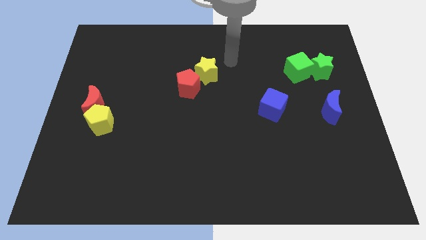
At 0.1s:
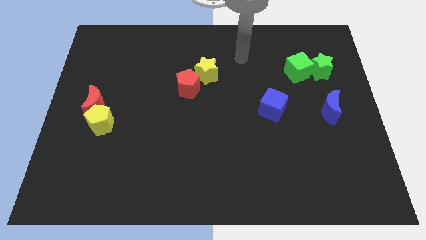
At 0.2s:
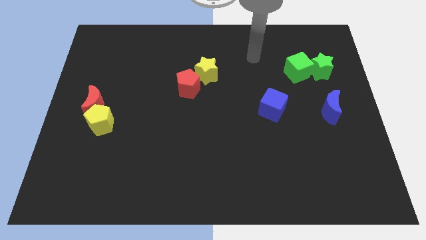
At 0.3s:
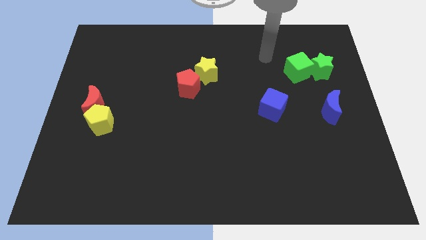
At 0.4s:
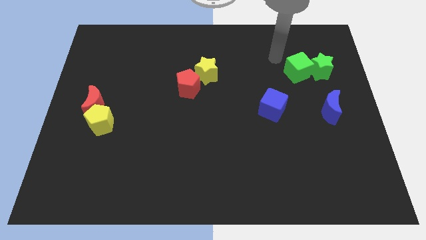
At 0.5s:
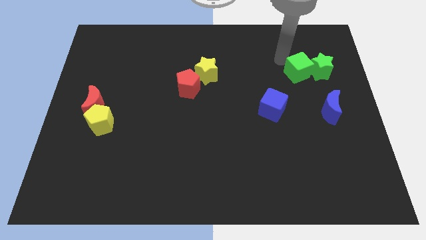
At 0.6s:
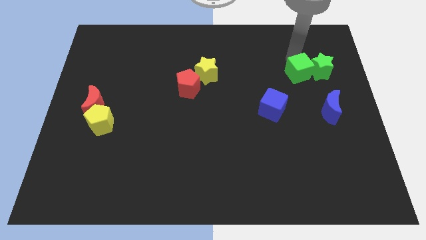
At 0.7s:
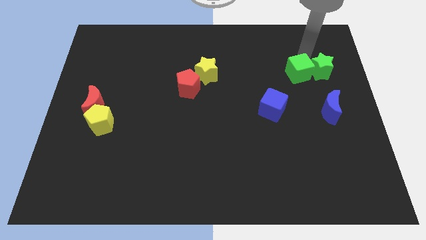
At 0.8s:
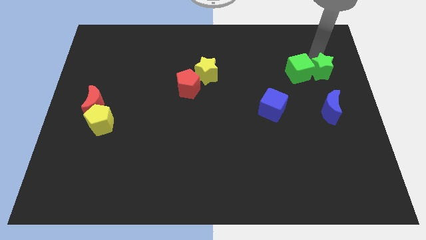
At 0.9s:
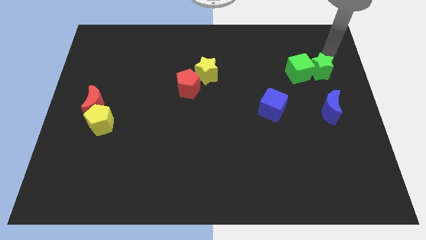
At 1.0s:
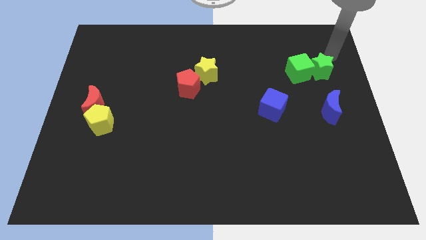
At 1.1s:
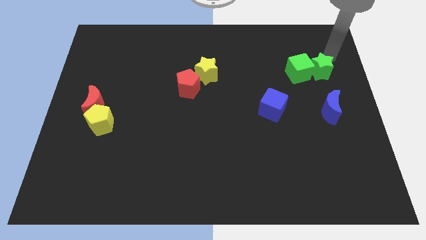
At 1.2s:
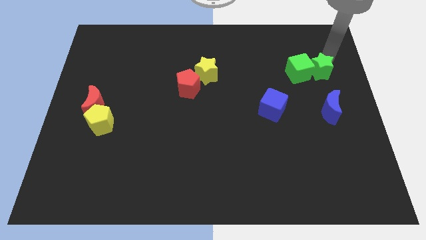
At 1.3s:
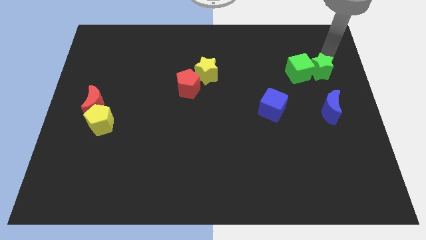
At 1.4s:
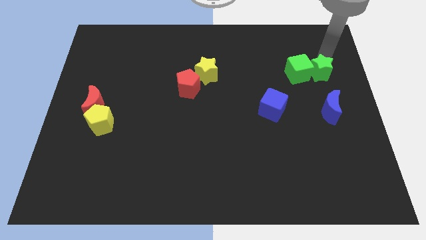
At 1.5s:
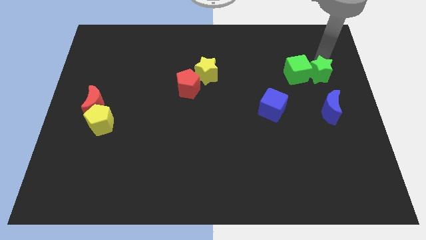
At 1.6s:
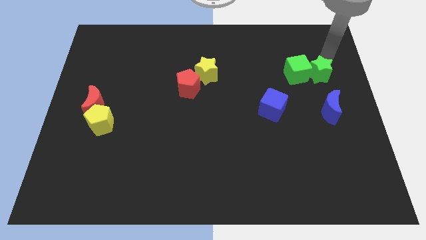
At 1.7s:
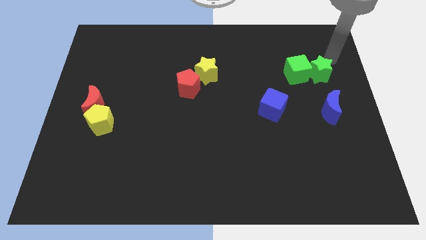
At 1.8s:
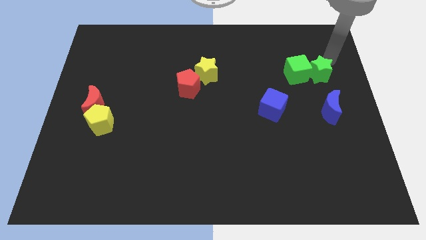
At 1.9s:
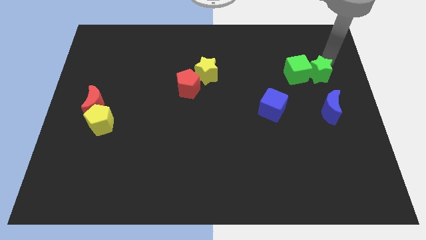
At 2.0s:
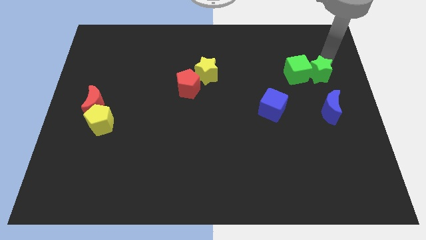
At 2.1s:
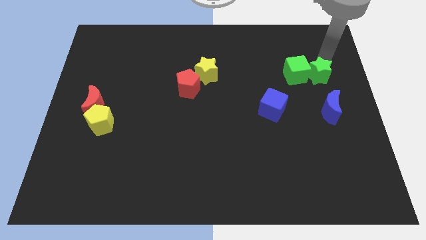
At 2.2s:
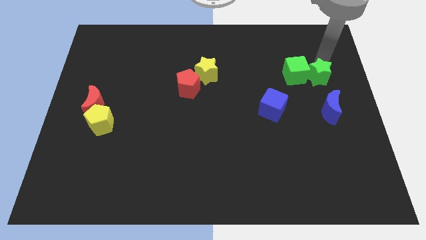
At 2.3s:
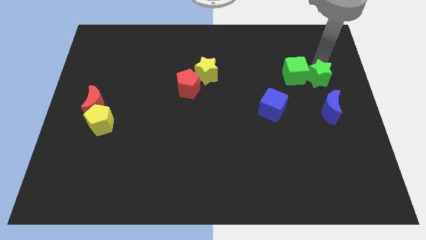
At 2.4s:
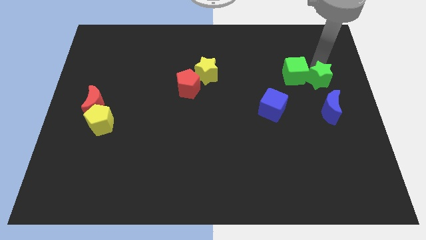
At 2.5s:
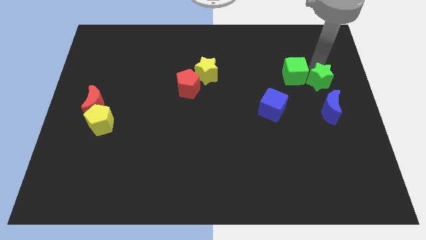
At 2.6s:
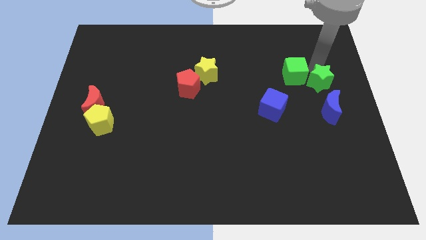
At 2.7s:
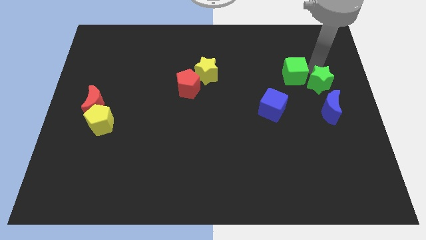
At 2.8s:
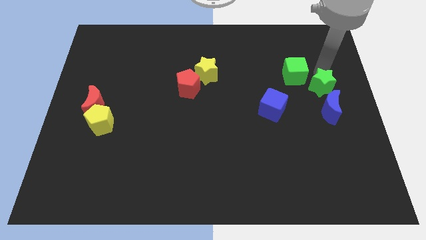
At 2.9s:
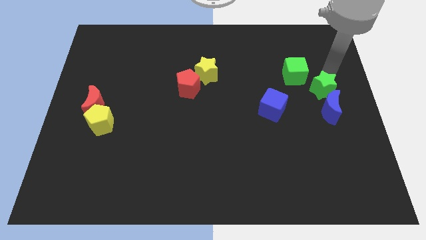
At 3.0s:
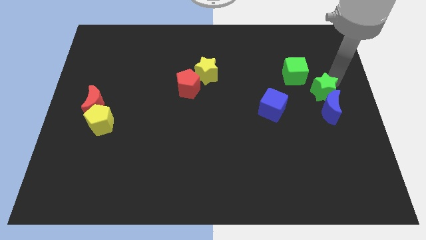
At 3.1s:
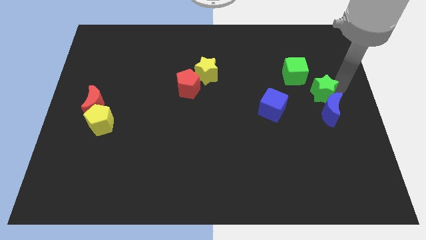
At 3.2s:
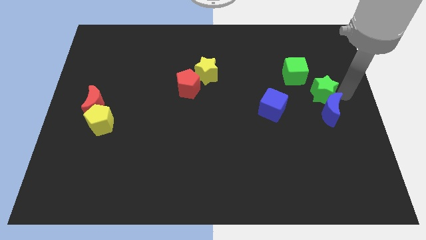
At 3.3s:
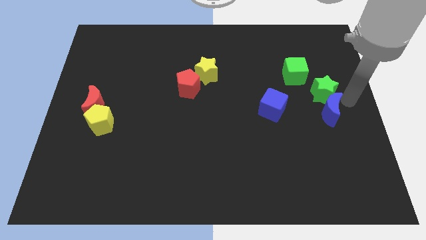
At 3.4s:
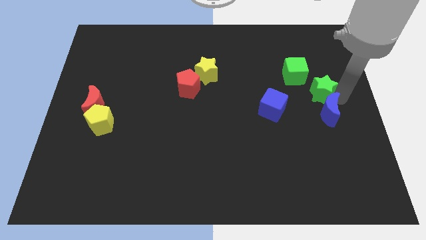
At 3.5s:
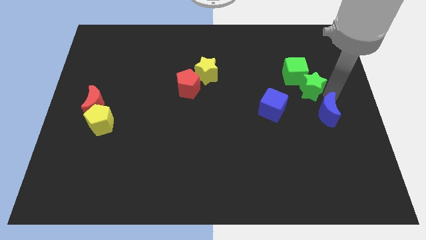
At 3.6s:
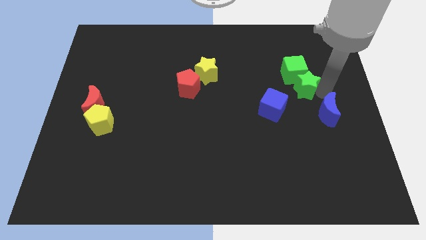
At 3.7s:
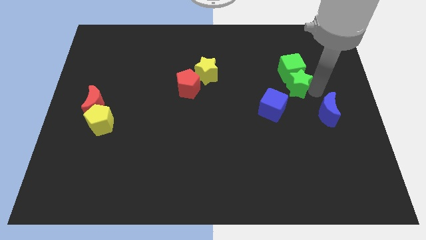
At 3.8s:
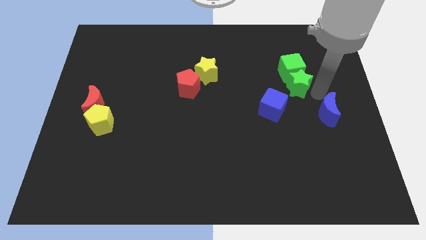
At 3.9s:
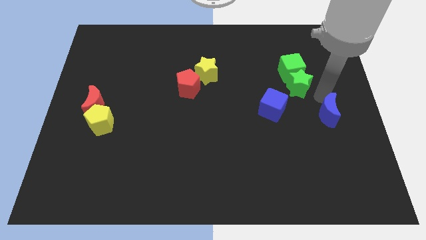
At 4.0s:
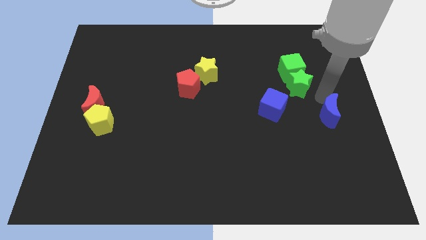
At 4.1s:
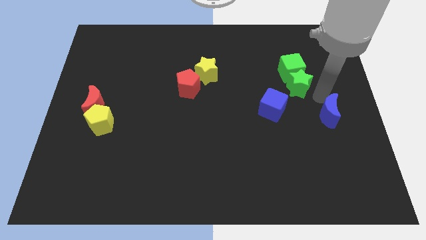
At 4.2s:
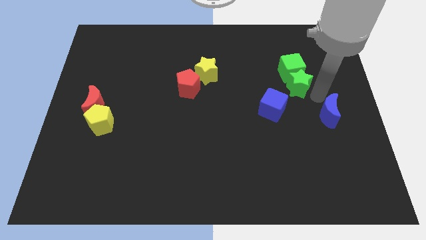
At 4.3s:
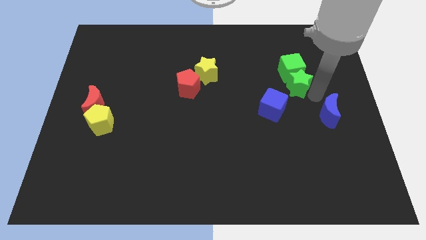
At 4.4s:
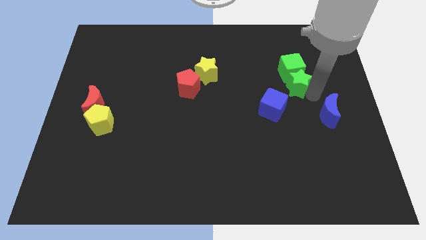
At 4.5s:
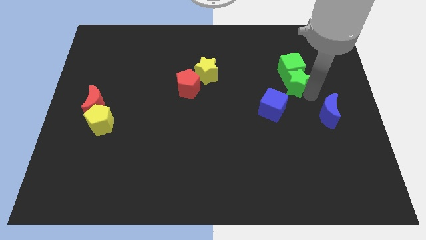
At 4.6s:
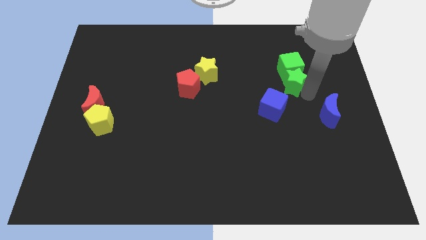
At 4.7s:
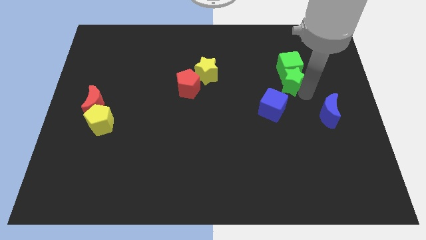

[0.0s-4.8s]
slightly move the green star left

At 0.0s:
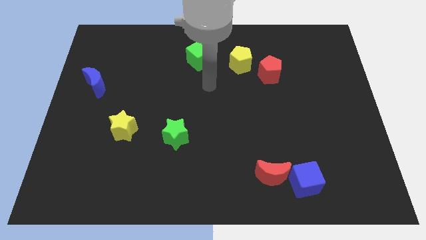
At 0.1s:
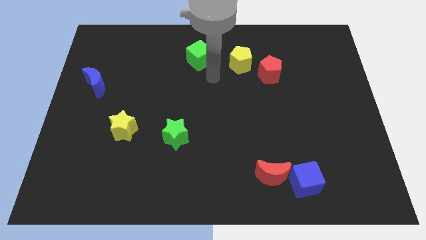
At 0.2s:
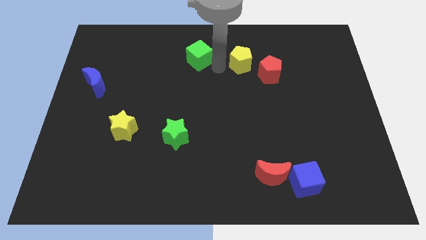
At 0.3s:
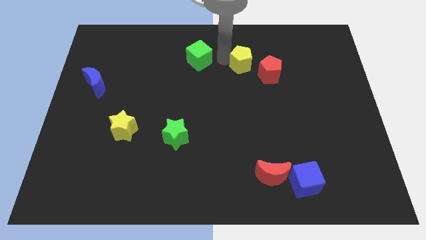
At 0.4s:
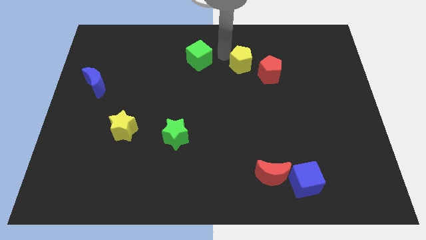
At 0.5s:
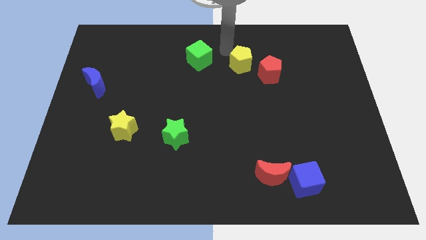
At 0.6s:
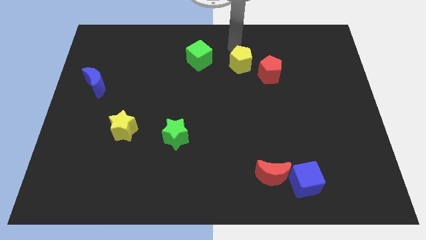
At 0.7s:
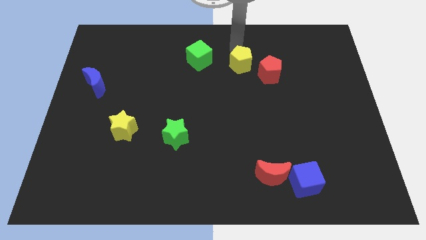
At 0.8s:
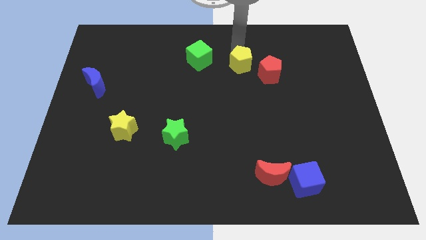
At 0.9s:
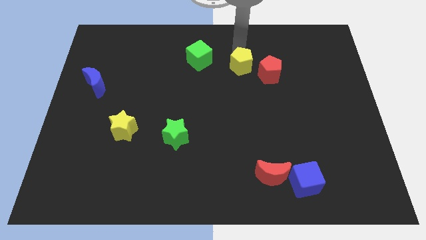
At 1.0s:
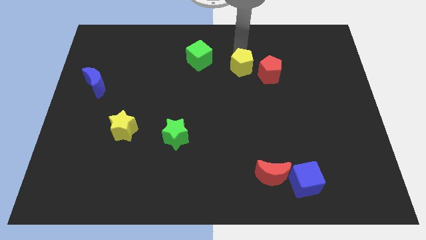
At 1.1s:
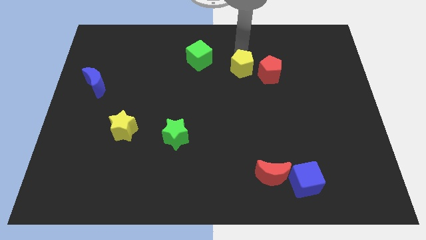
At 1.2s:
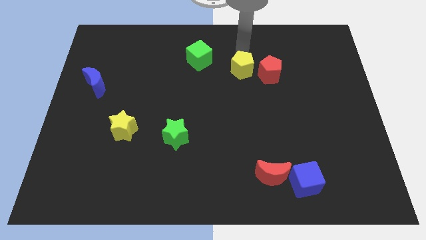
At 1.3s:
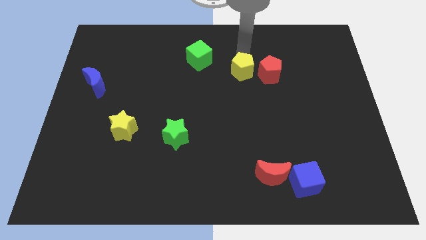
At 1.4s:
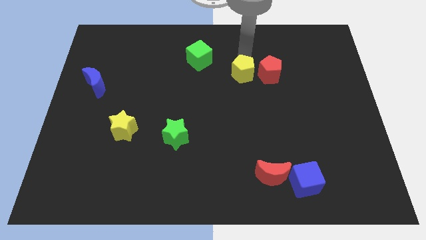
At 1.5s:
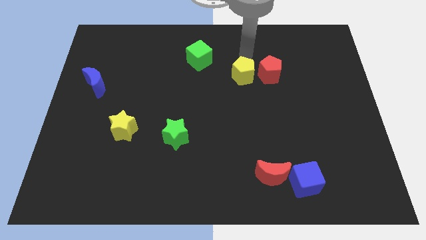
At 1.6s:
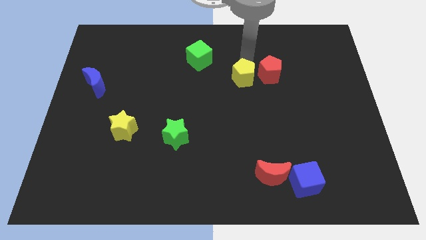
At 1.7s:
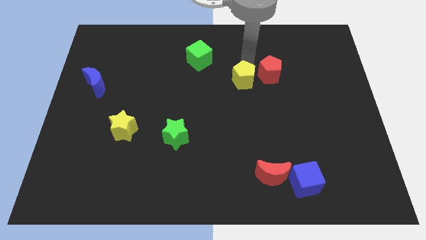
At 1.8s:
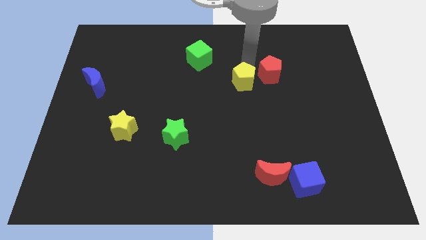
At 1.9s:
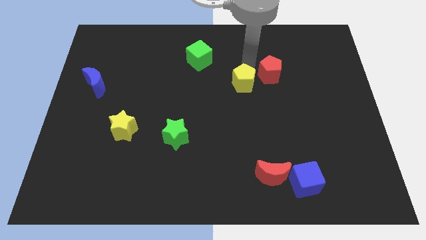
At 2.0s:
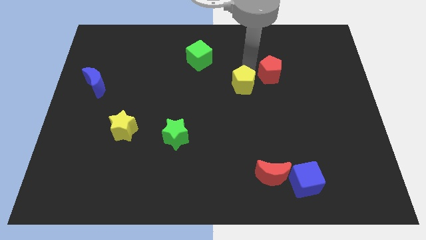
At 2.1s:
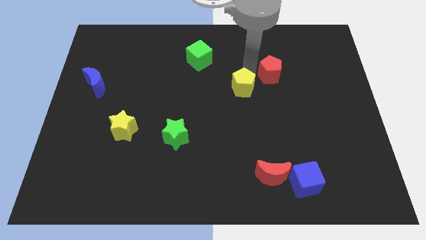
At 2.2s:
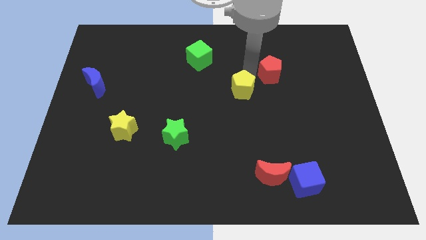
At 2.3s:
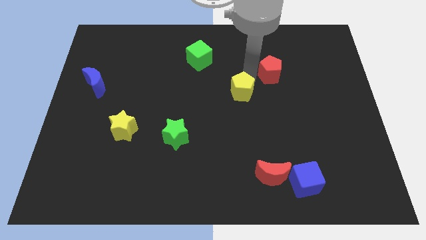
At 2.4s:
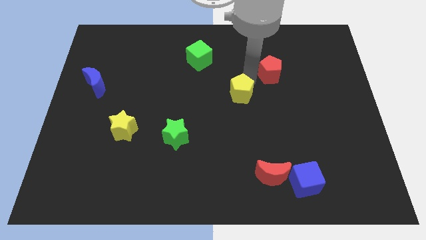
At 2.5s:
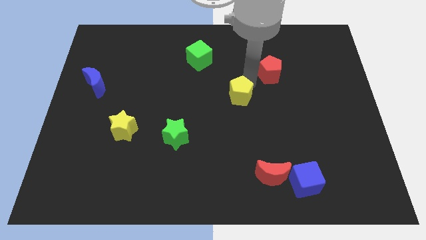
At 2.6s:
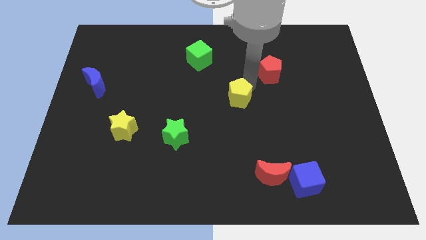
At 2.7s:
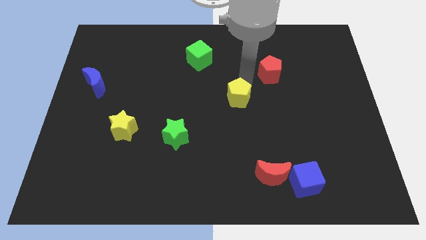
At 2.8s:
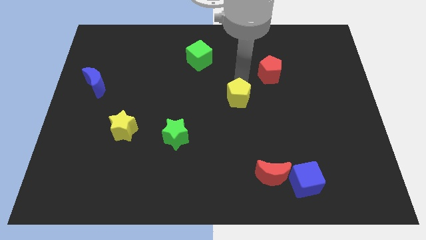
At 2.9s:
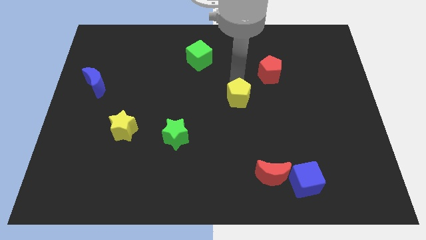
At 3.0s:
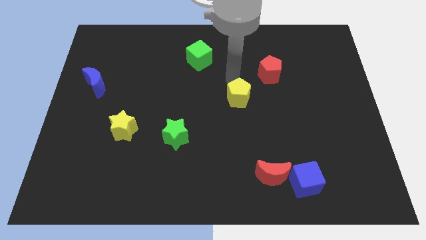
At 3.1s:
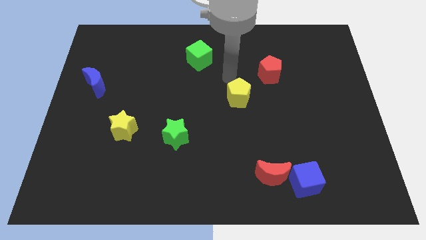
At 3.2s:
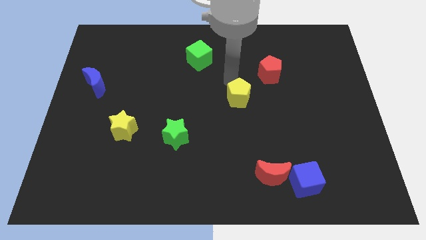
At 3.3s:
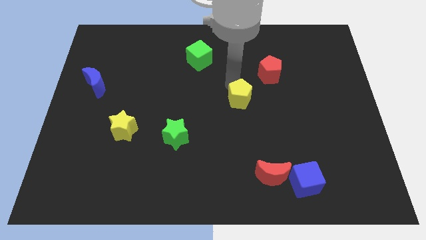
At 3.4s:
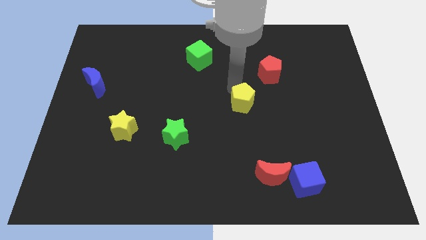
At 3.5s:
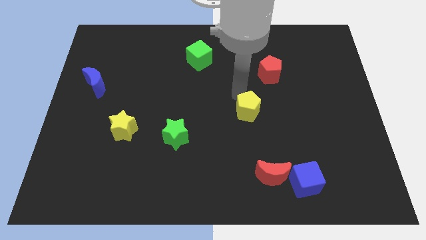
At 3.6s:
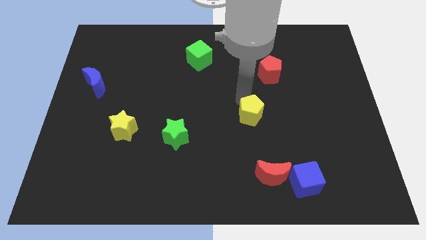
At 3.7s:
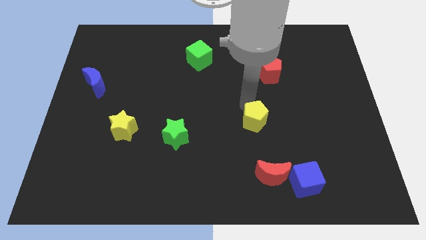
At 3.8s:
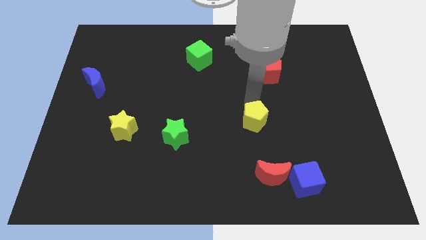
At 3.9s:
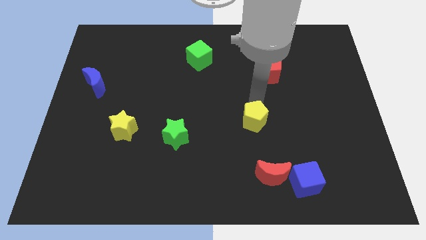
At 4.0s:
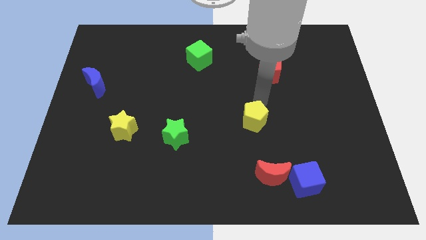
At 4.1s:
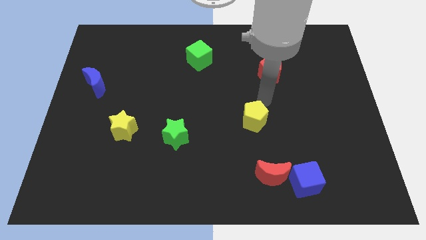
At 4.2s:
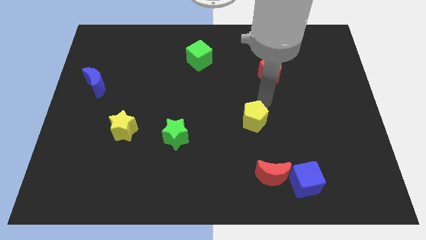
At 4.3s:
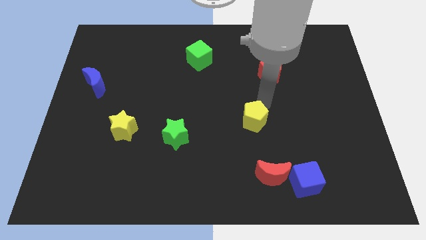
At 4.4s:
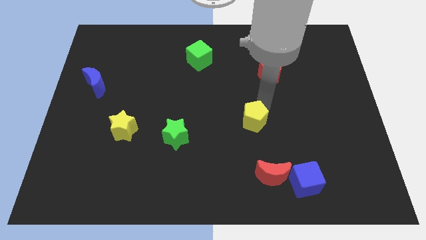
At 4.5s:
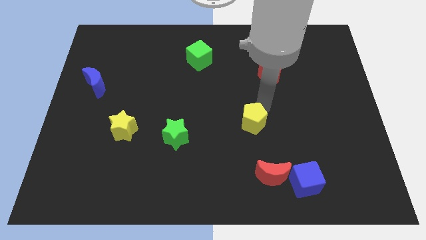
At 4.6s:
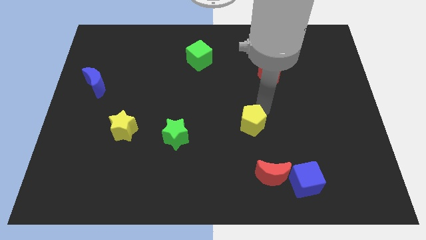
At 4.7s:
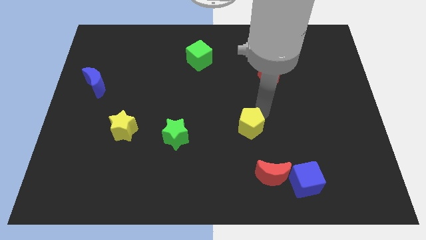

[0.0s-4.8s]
push the yellow pentagon downwards
